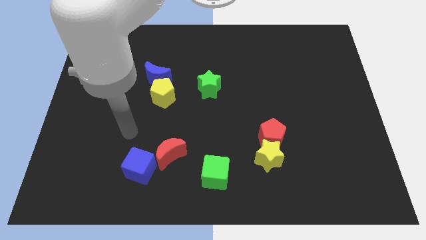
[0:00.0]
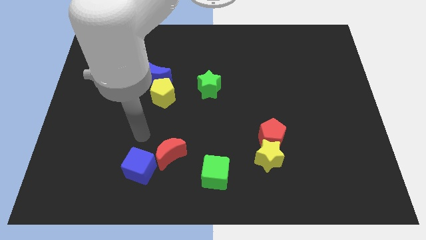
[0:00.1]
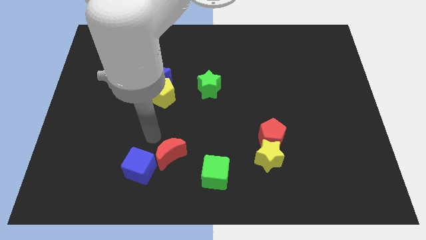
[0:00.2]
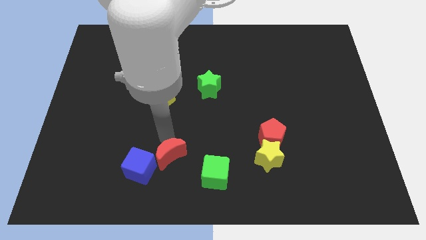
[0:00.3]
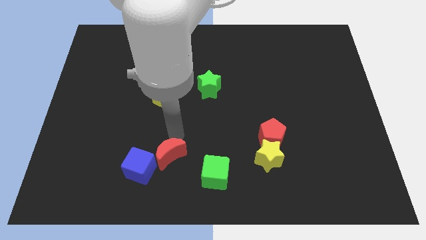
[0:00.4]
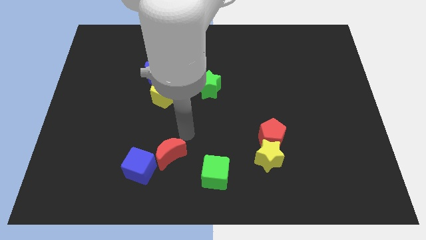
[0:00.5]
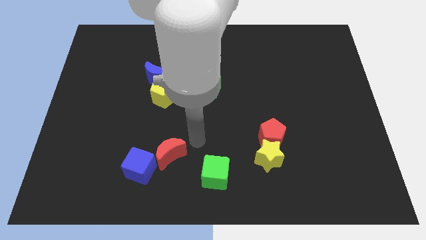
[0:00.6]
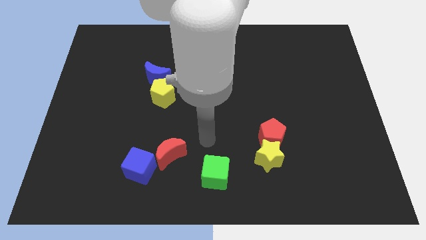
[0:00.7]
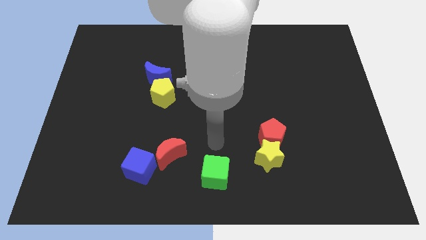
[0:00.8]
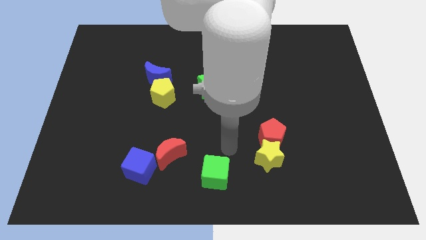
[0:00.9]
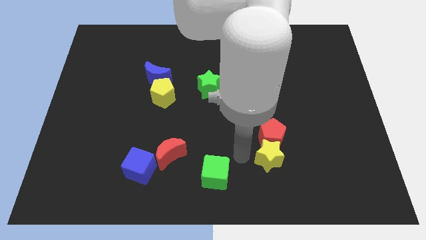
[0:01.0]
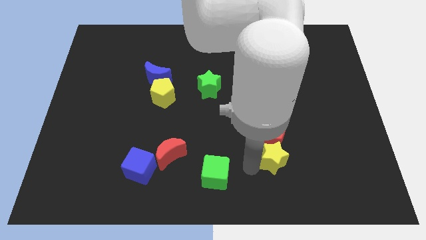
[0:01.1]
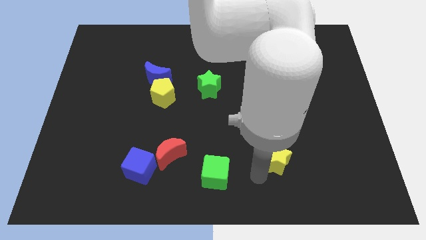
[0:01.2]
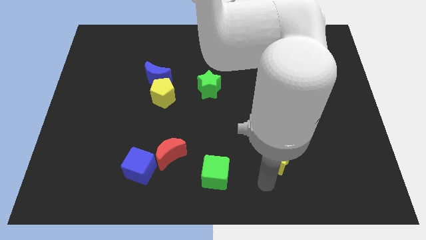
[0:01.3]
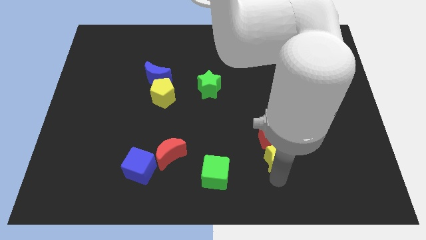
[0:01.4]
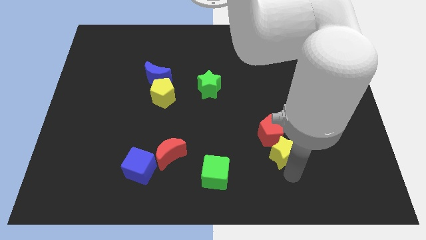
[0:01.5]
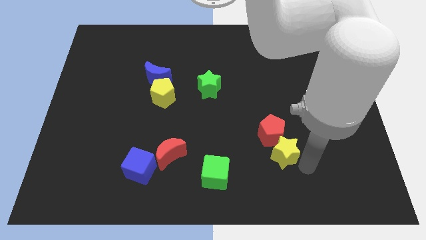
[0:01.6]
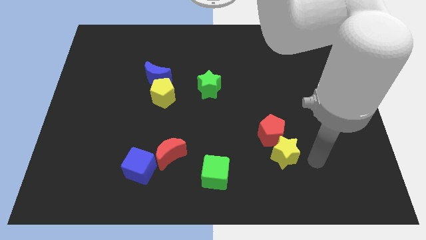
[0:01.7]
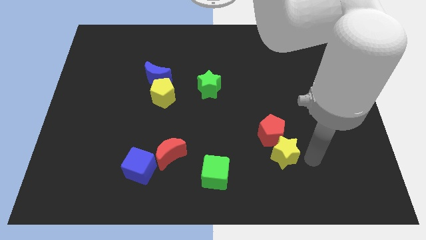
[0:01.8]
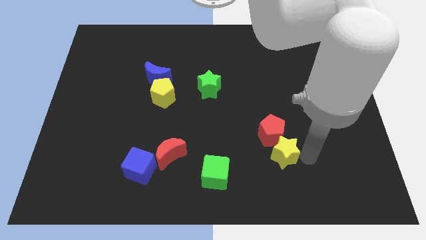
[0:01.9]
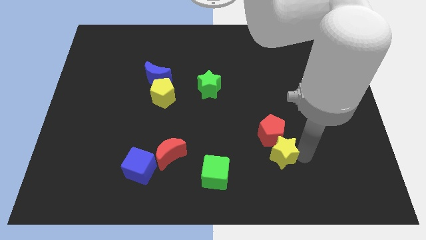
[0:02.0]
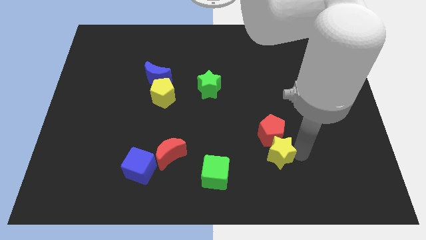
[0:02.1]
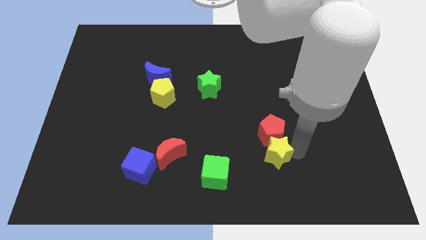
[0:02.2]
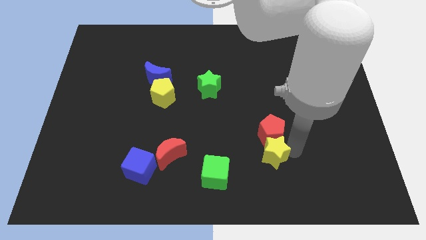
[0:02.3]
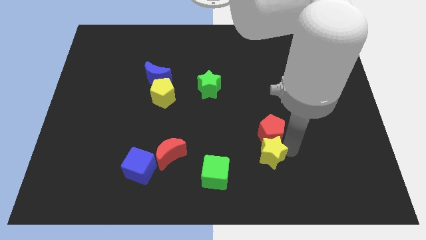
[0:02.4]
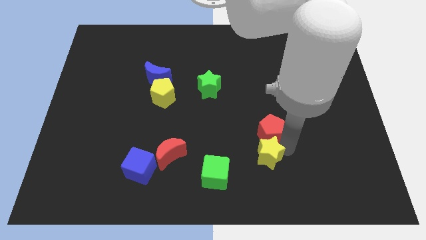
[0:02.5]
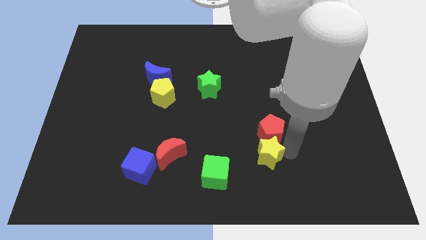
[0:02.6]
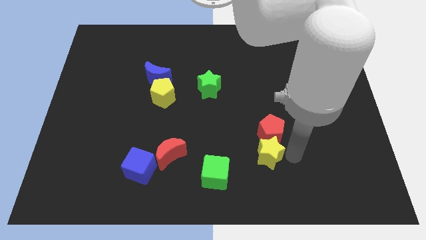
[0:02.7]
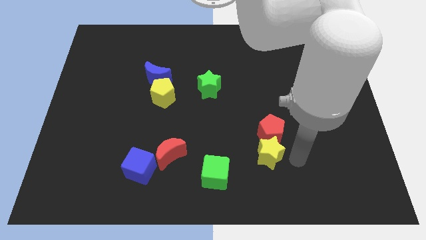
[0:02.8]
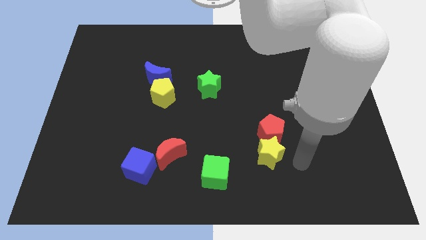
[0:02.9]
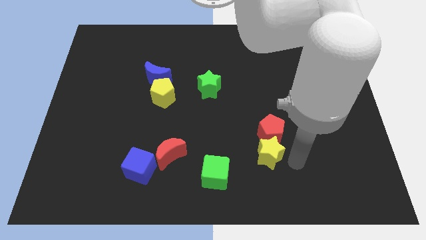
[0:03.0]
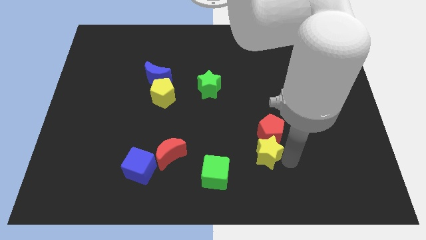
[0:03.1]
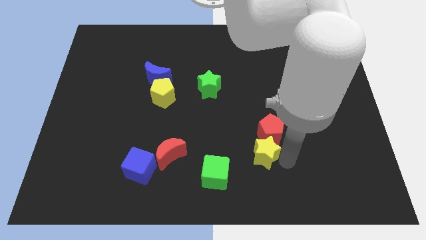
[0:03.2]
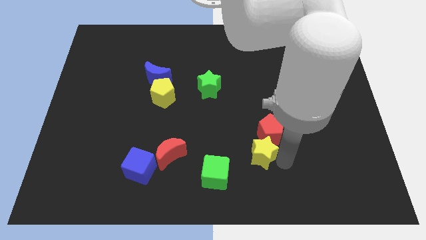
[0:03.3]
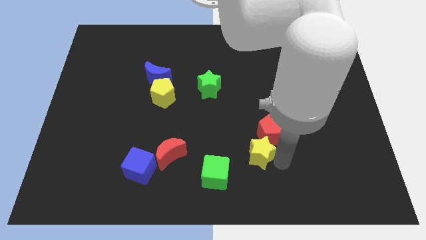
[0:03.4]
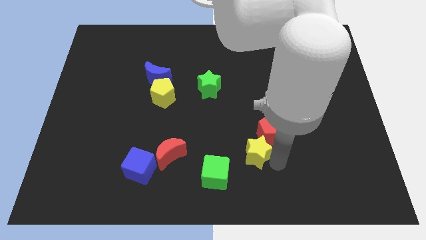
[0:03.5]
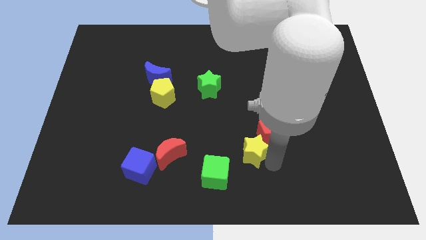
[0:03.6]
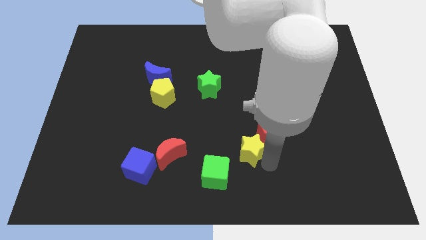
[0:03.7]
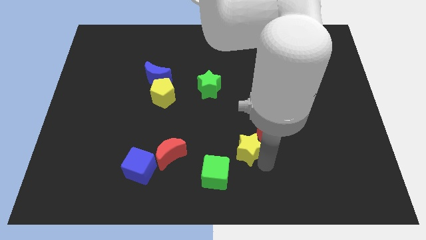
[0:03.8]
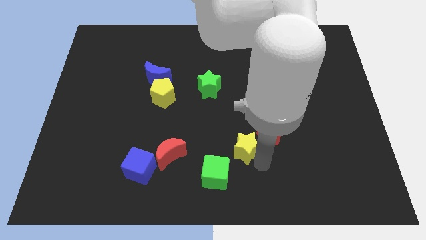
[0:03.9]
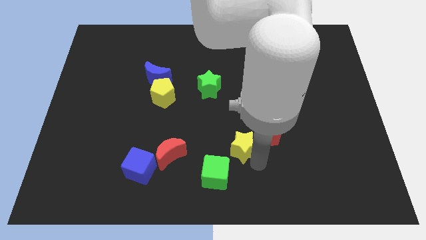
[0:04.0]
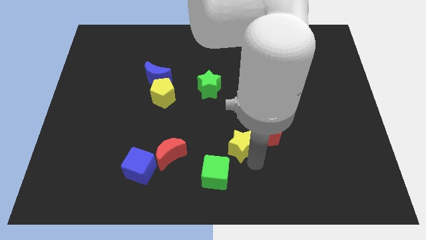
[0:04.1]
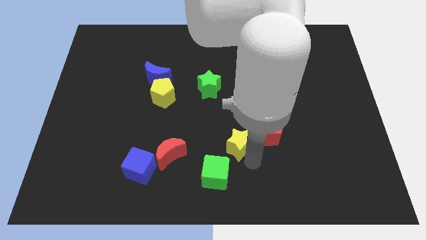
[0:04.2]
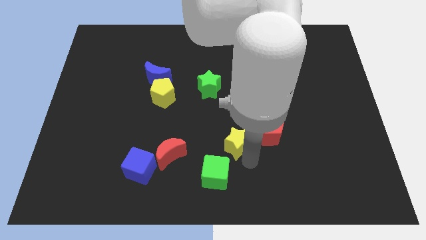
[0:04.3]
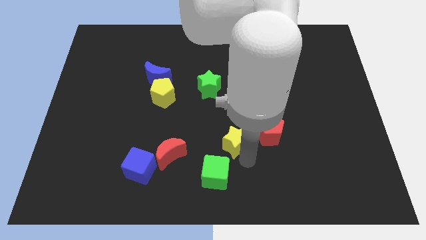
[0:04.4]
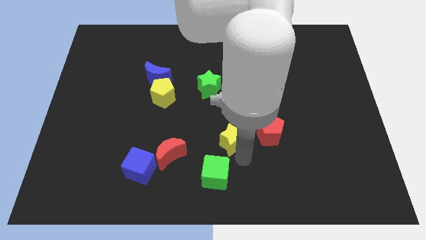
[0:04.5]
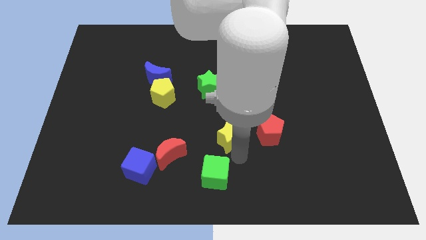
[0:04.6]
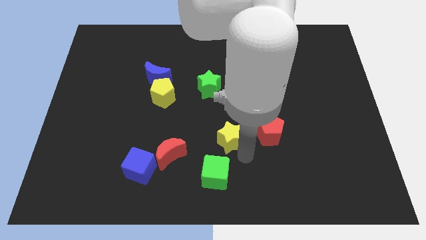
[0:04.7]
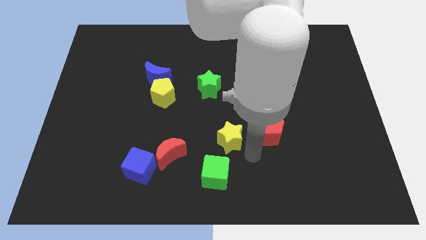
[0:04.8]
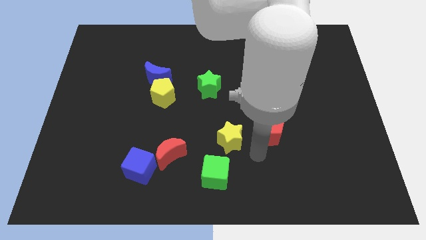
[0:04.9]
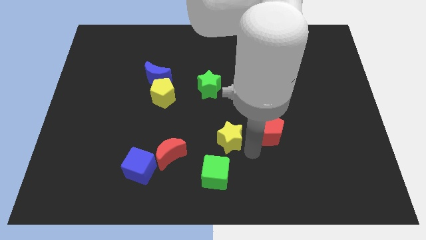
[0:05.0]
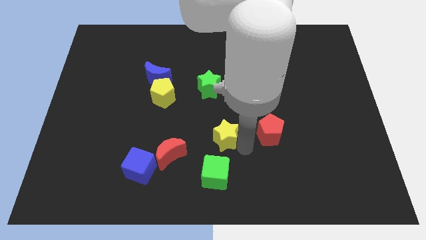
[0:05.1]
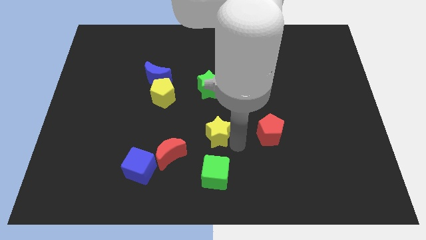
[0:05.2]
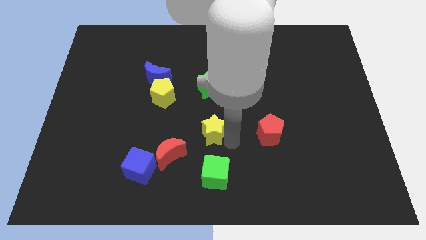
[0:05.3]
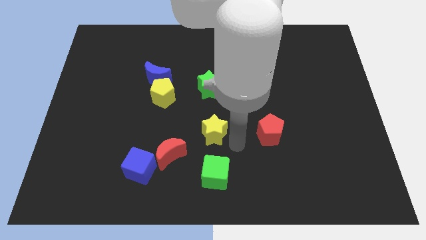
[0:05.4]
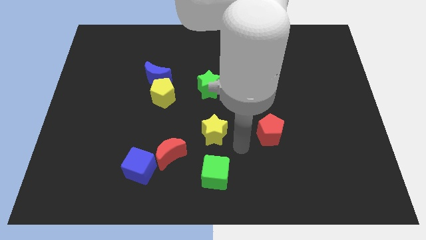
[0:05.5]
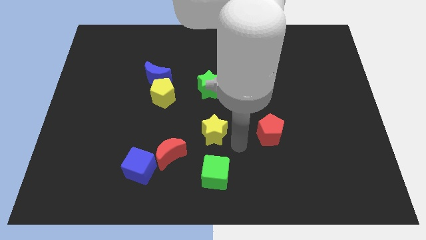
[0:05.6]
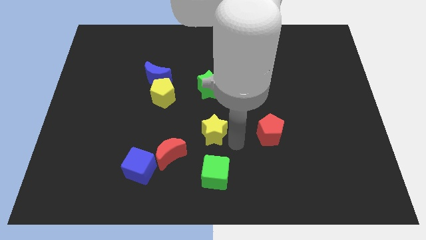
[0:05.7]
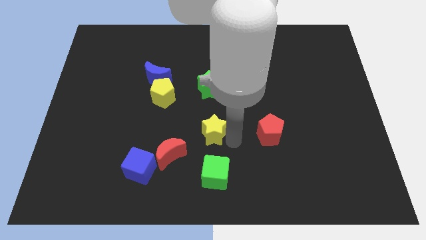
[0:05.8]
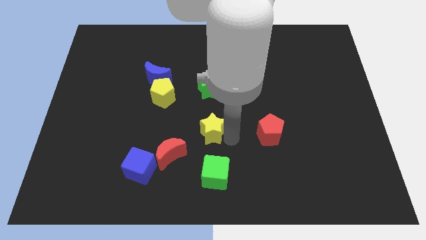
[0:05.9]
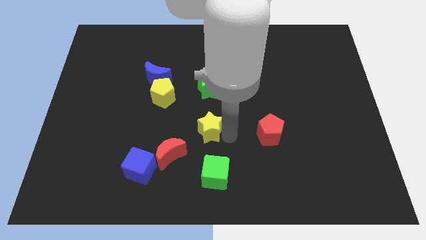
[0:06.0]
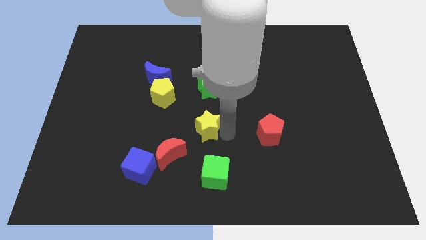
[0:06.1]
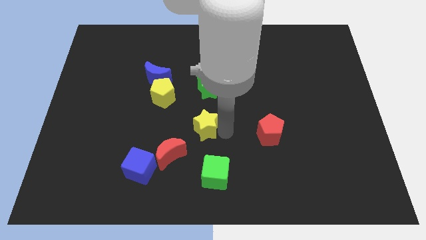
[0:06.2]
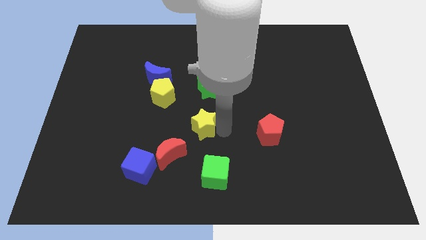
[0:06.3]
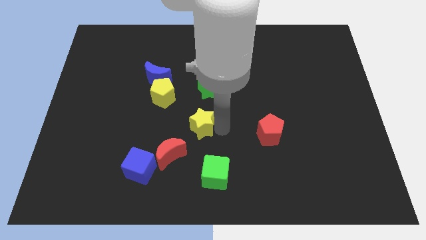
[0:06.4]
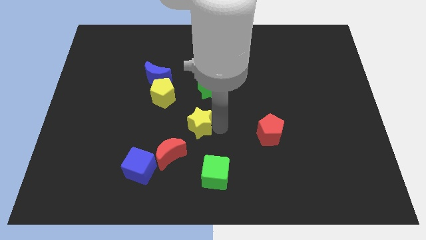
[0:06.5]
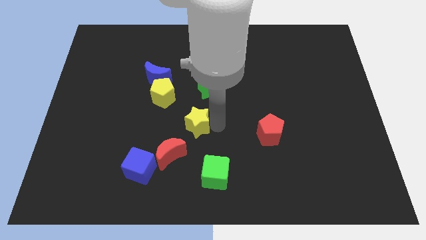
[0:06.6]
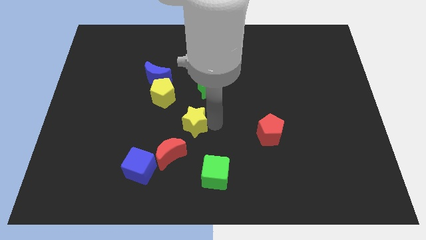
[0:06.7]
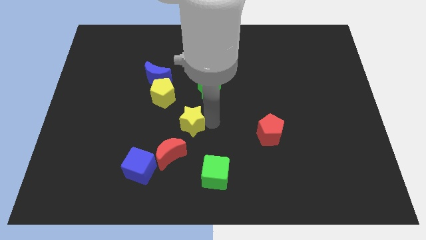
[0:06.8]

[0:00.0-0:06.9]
slide the yellow star above the red moon
